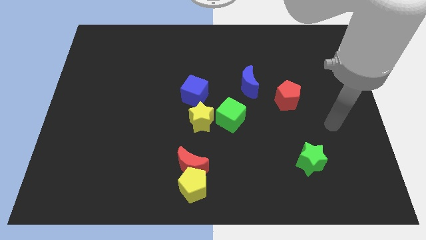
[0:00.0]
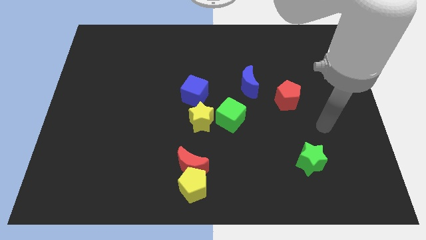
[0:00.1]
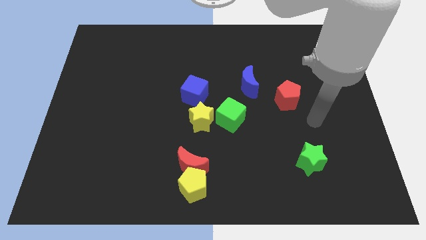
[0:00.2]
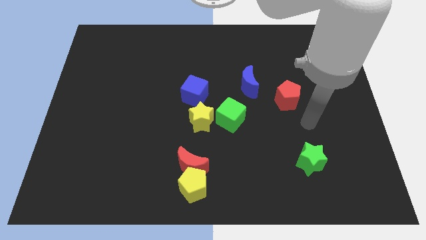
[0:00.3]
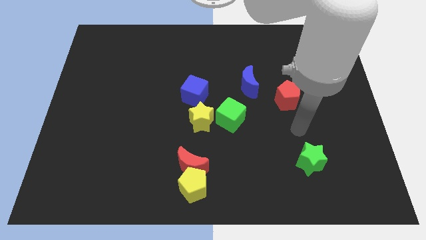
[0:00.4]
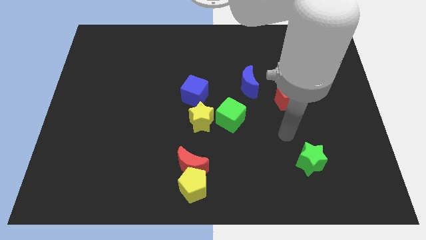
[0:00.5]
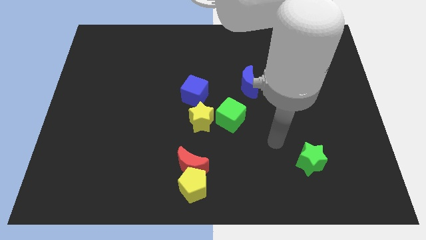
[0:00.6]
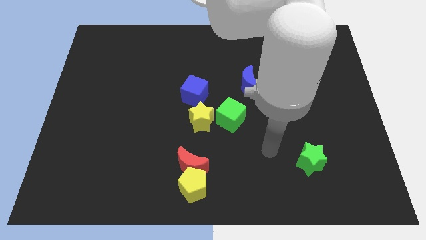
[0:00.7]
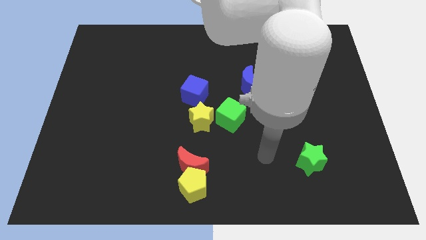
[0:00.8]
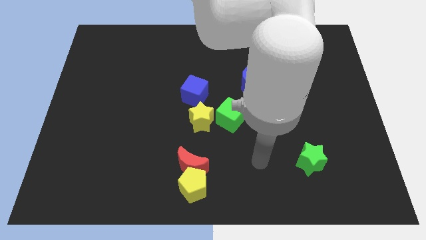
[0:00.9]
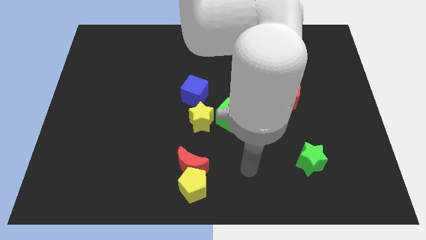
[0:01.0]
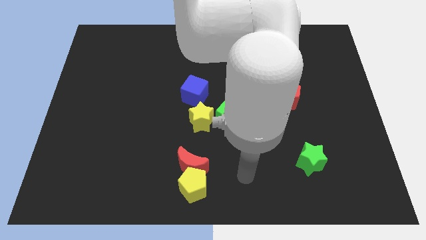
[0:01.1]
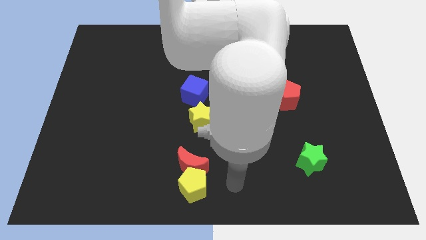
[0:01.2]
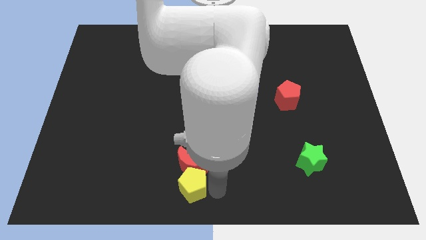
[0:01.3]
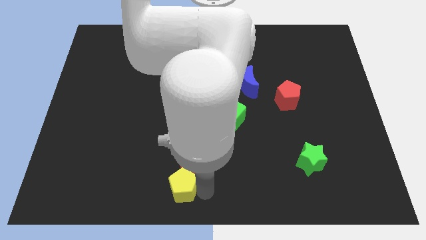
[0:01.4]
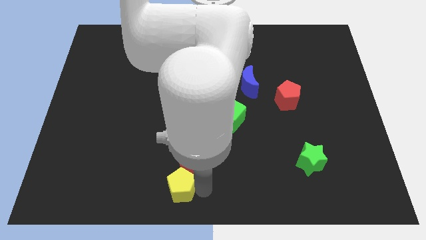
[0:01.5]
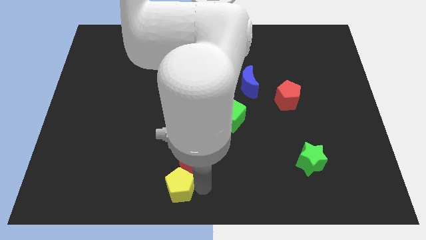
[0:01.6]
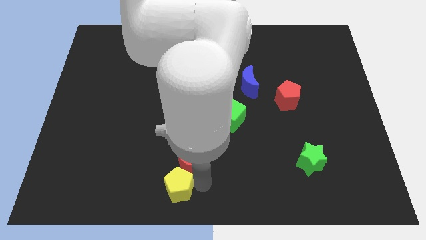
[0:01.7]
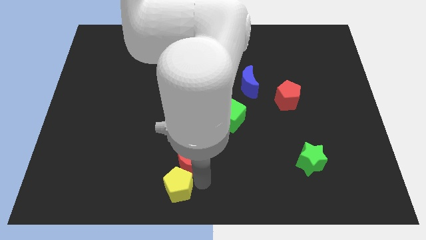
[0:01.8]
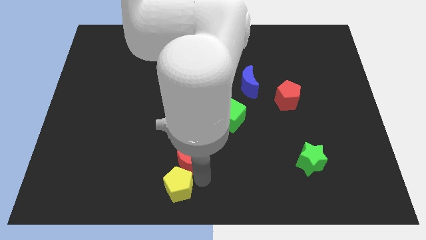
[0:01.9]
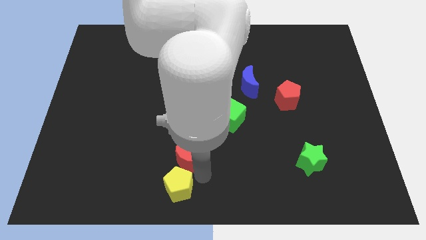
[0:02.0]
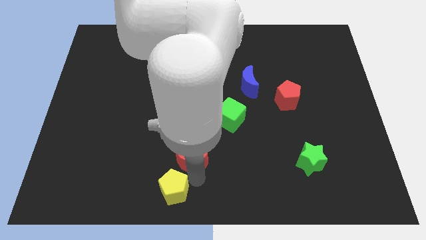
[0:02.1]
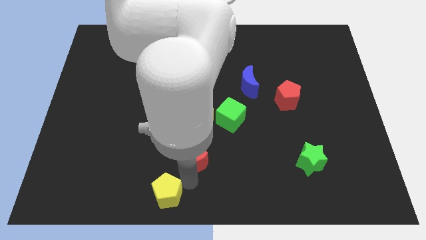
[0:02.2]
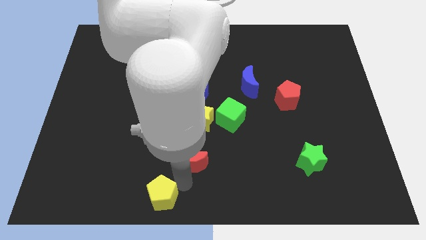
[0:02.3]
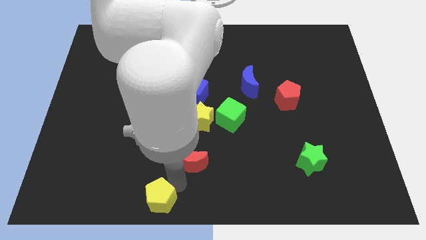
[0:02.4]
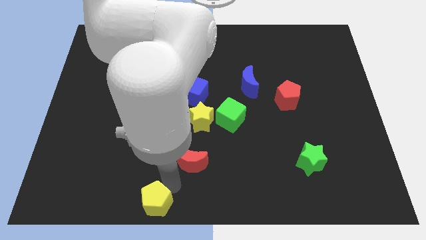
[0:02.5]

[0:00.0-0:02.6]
move the red moon away from the yellow pentagon

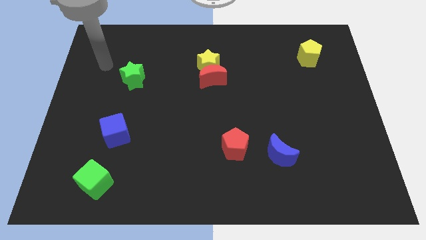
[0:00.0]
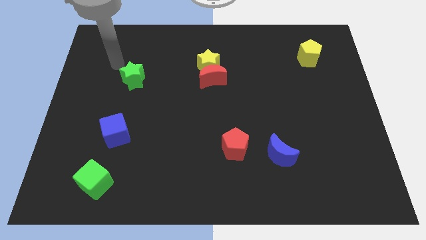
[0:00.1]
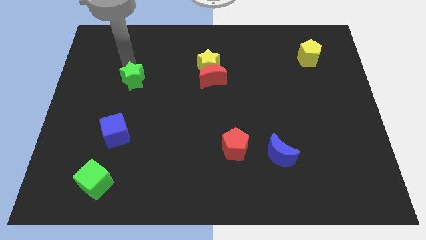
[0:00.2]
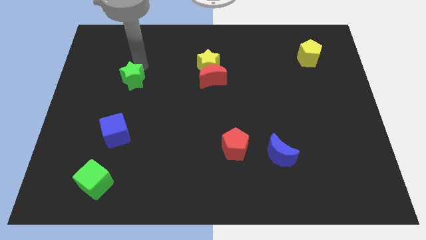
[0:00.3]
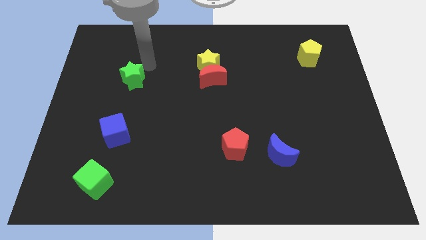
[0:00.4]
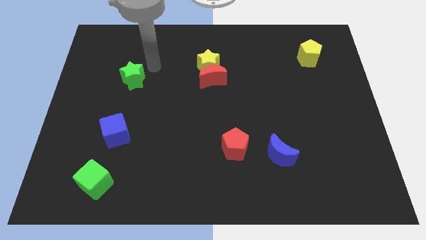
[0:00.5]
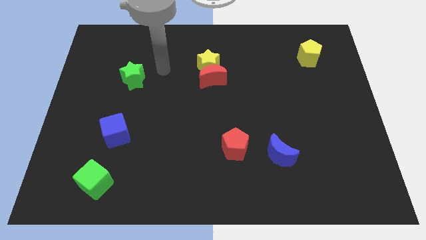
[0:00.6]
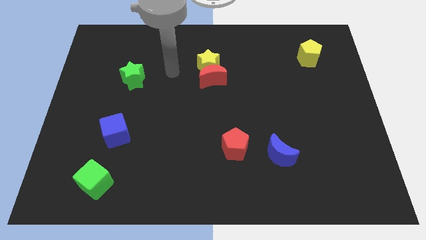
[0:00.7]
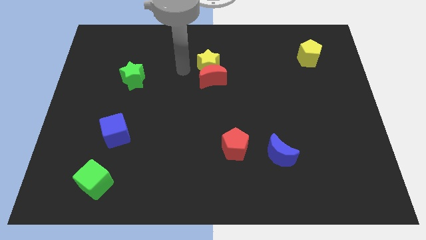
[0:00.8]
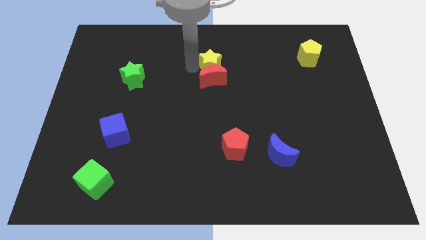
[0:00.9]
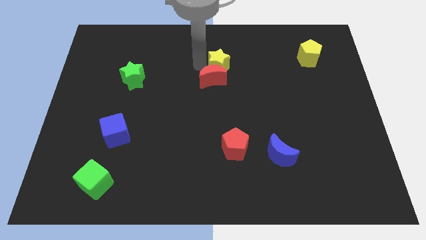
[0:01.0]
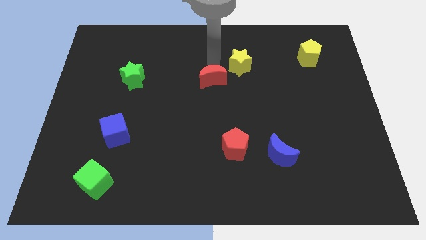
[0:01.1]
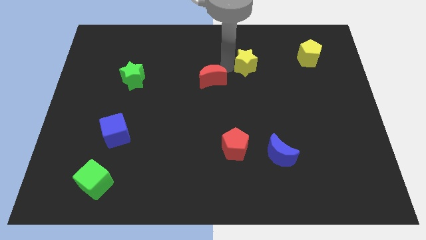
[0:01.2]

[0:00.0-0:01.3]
pull the red moon apart from the yellow star

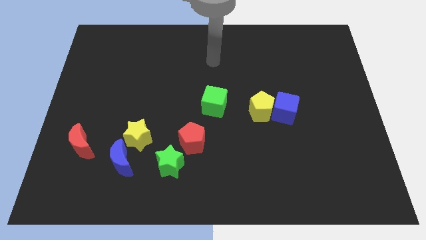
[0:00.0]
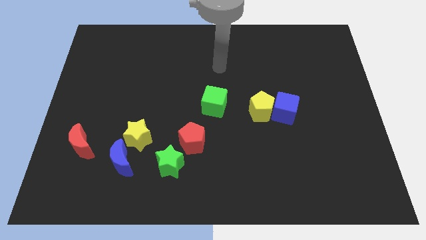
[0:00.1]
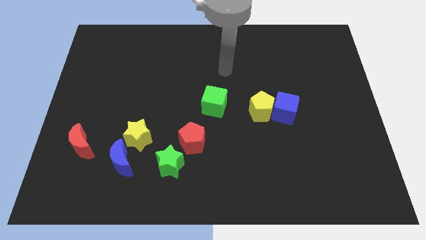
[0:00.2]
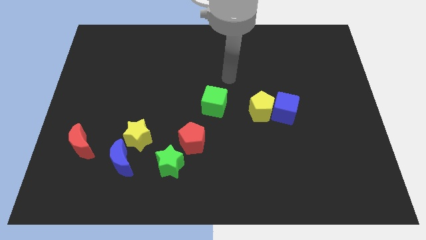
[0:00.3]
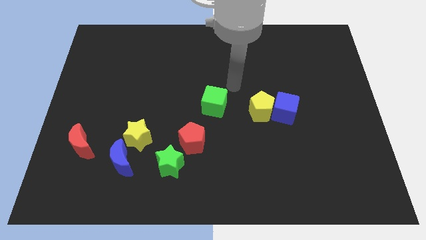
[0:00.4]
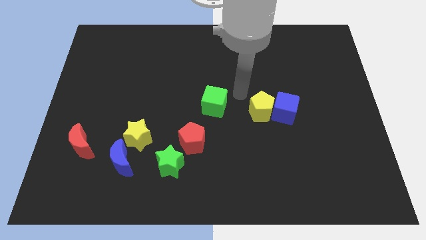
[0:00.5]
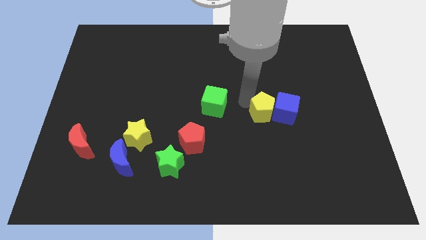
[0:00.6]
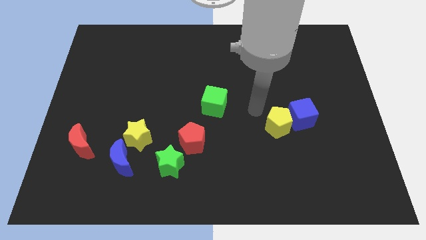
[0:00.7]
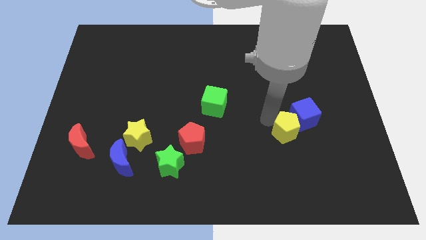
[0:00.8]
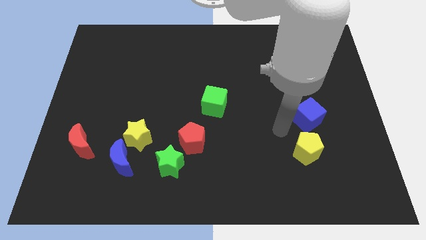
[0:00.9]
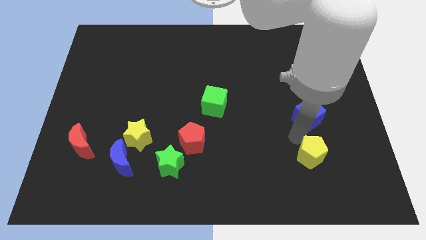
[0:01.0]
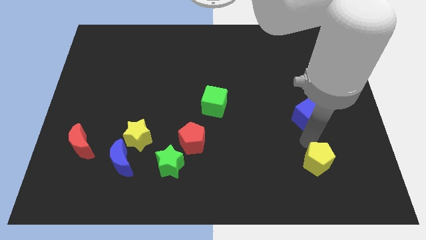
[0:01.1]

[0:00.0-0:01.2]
move the blue cube away from the yellow pentagon

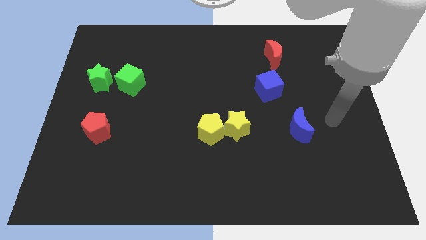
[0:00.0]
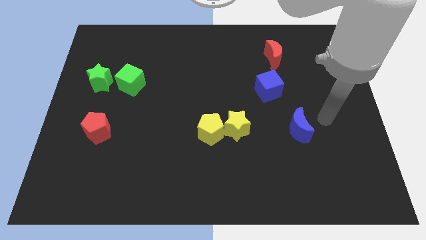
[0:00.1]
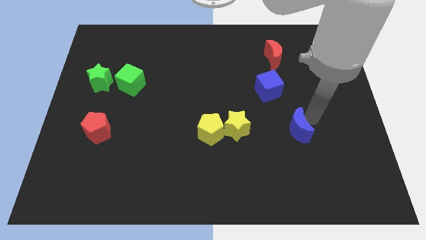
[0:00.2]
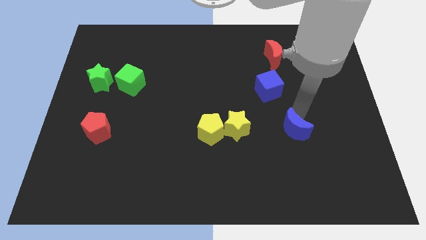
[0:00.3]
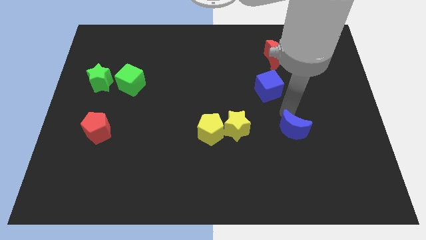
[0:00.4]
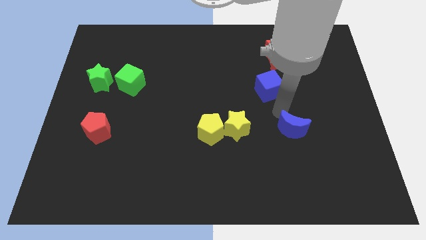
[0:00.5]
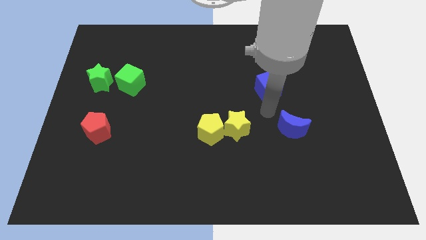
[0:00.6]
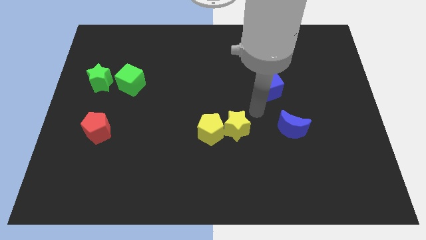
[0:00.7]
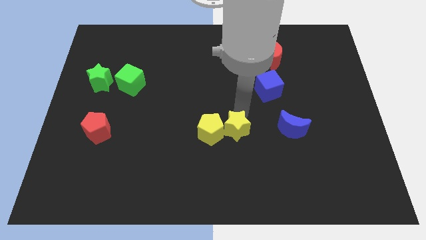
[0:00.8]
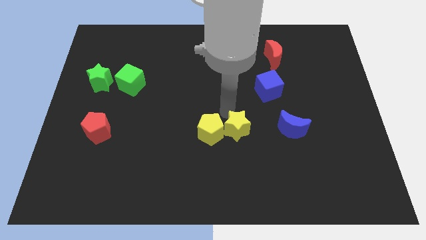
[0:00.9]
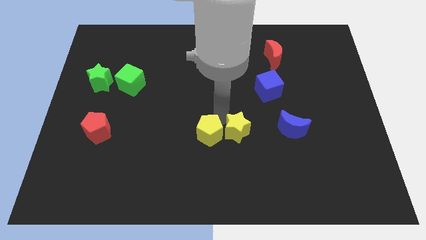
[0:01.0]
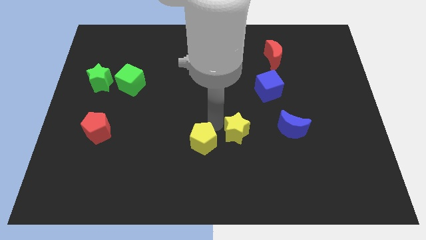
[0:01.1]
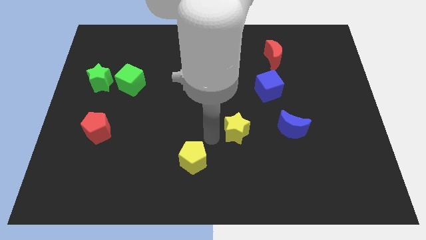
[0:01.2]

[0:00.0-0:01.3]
pull the yellow star apart from the yellow pentagon

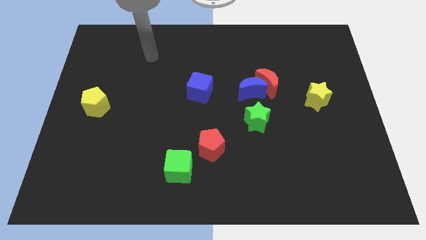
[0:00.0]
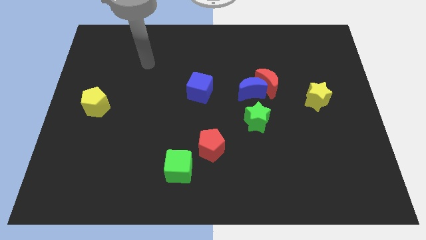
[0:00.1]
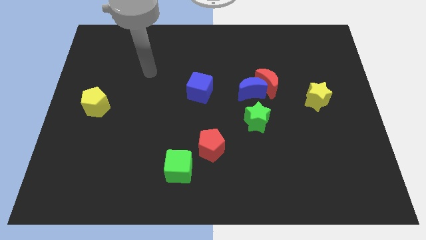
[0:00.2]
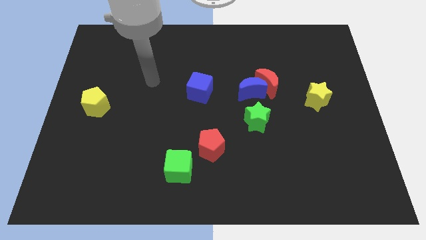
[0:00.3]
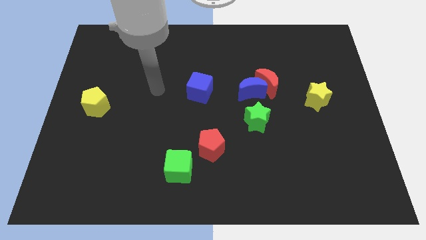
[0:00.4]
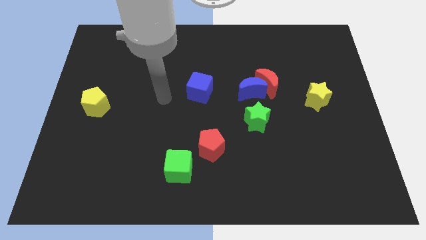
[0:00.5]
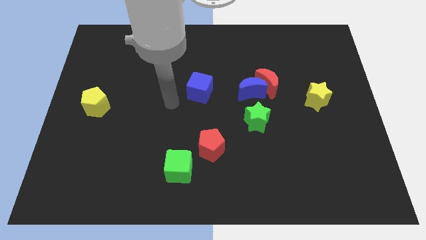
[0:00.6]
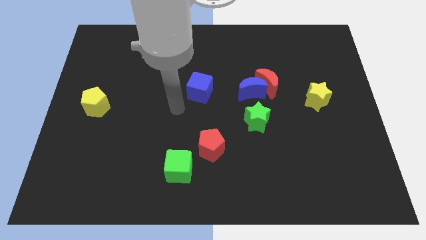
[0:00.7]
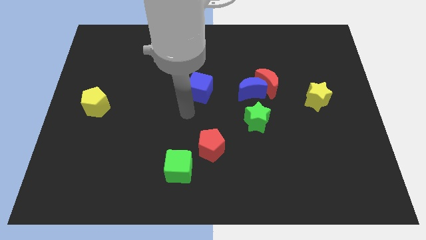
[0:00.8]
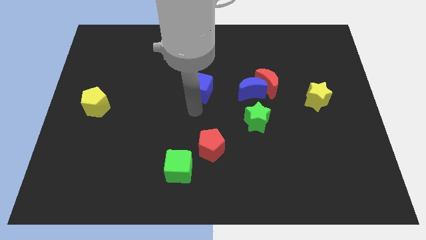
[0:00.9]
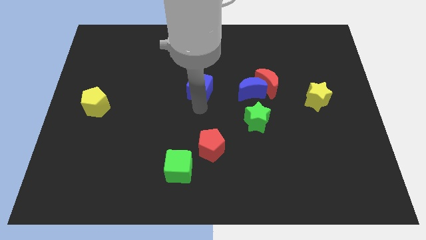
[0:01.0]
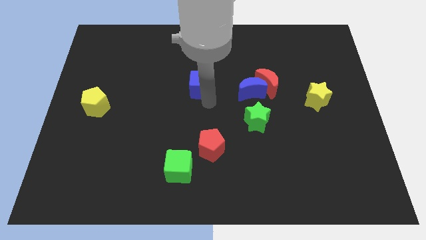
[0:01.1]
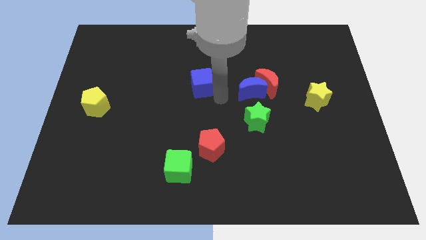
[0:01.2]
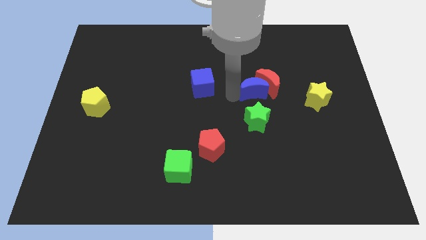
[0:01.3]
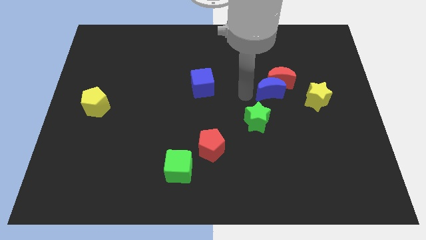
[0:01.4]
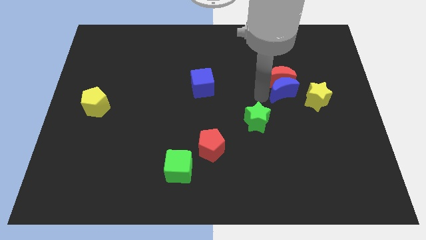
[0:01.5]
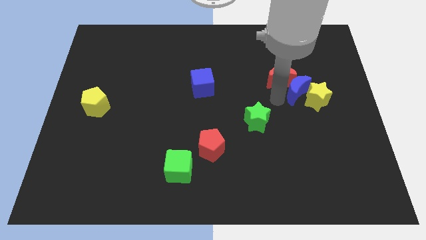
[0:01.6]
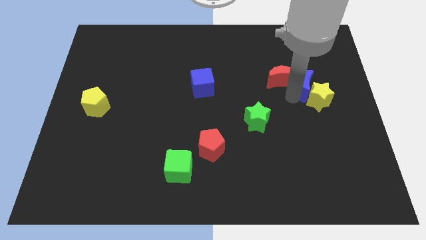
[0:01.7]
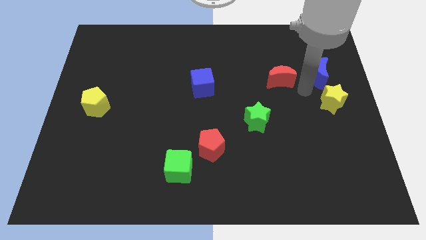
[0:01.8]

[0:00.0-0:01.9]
move the red moon away from the blue moon

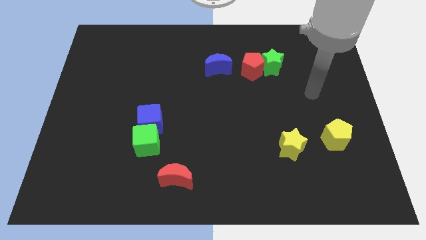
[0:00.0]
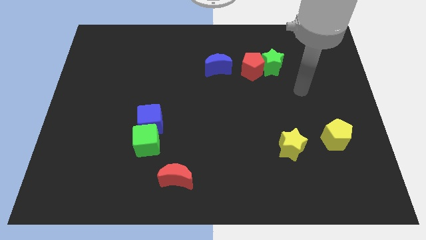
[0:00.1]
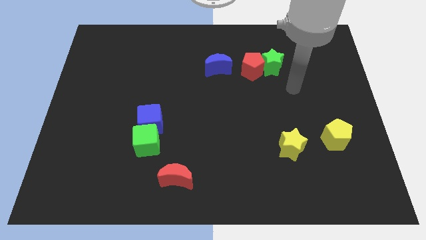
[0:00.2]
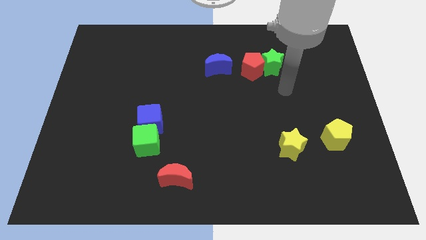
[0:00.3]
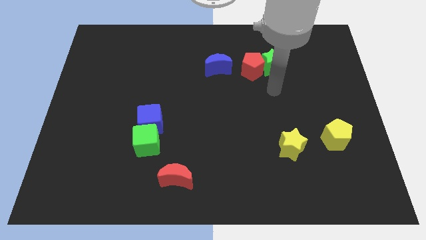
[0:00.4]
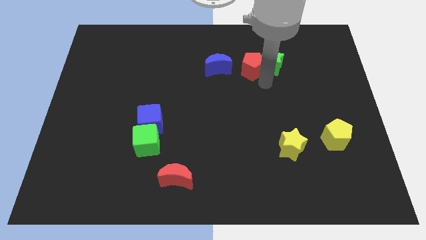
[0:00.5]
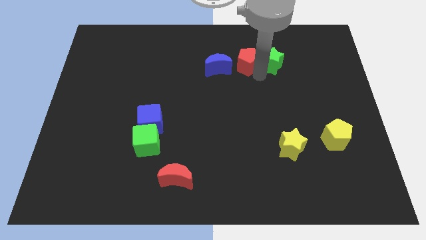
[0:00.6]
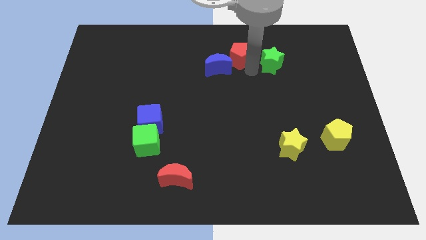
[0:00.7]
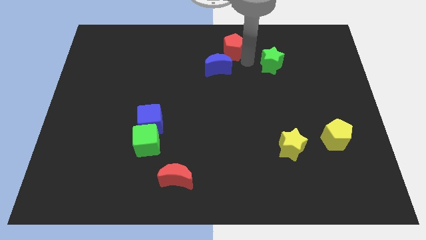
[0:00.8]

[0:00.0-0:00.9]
pull the green star apart from the red pentagon
